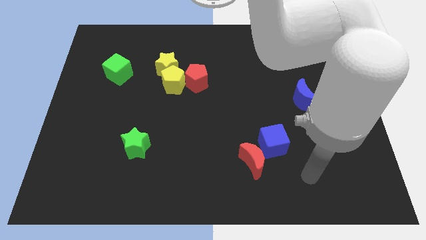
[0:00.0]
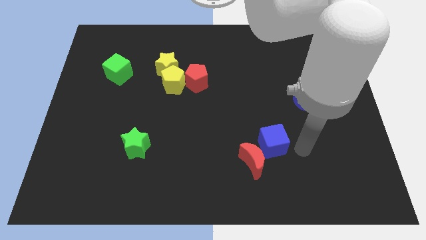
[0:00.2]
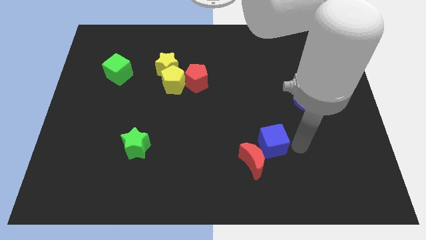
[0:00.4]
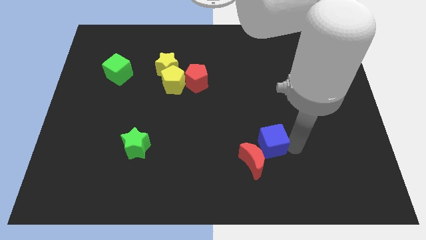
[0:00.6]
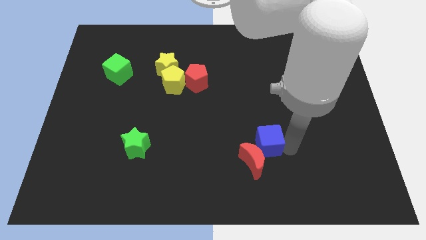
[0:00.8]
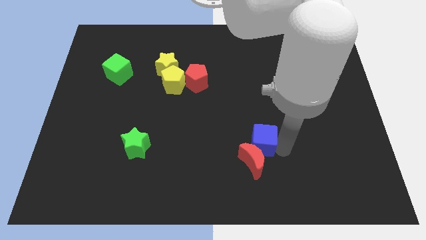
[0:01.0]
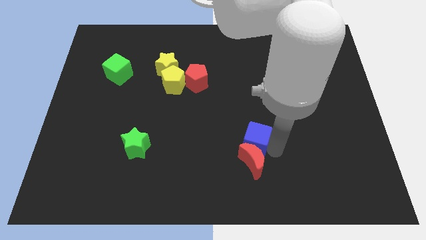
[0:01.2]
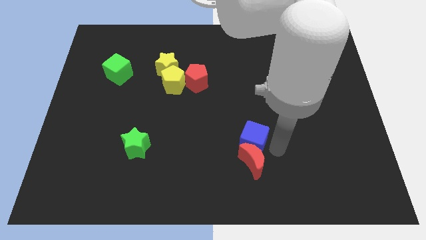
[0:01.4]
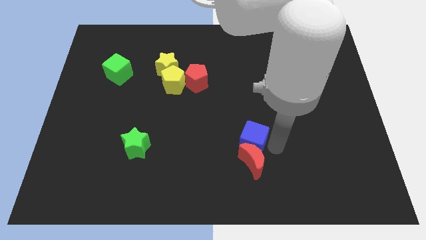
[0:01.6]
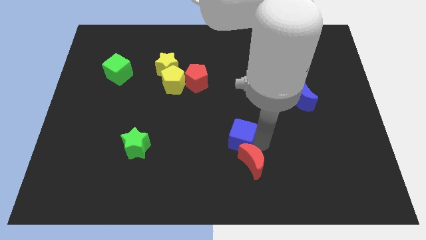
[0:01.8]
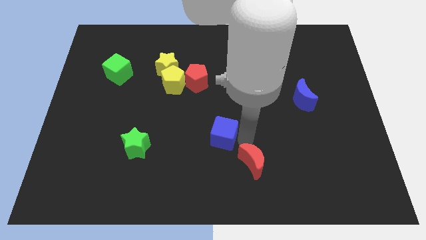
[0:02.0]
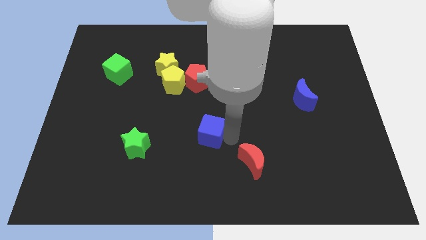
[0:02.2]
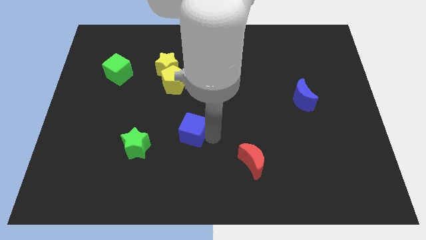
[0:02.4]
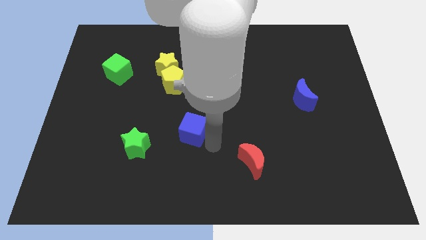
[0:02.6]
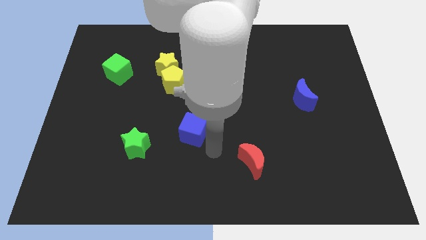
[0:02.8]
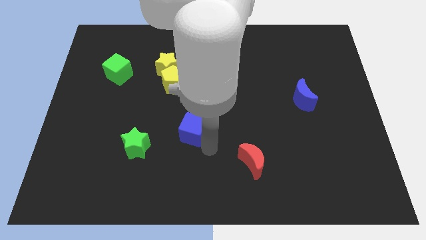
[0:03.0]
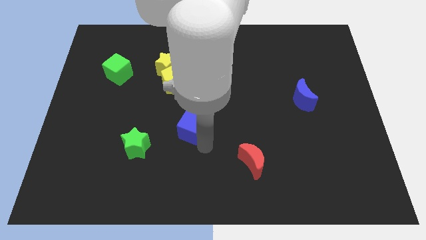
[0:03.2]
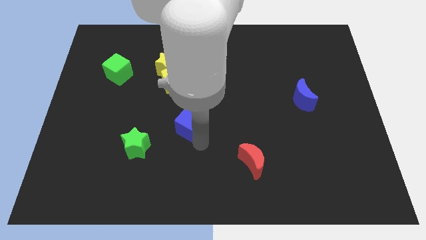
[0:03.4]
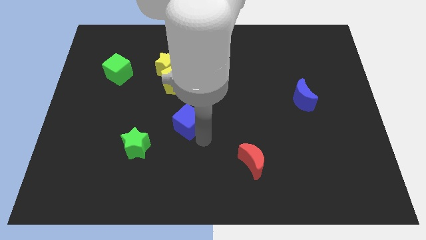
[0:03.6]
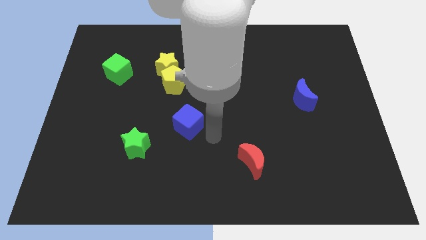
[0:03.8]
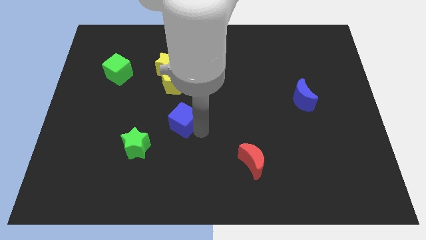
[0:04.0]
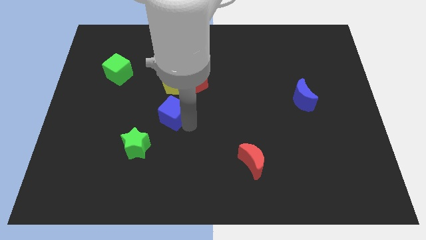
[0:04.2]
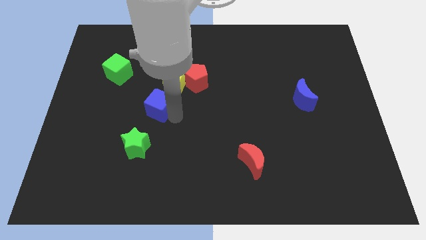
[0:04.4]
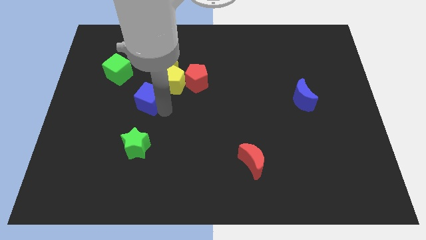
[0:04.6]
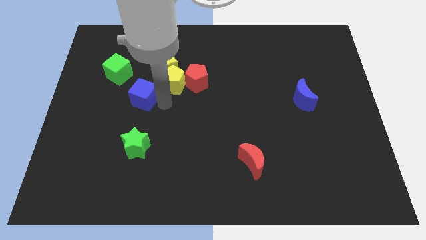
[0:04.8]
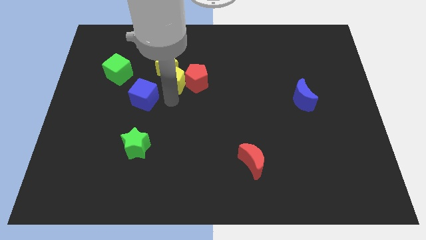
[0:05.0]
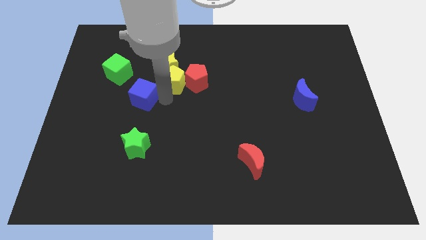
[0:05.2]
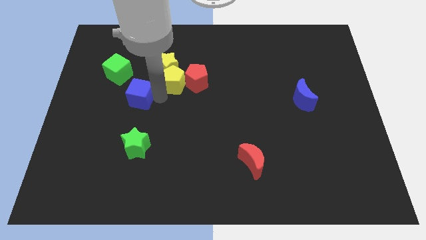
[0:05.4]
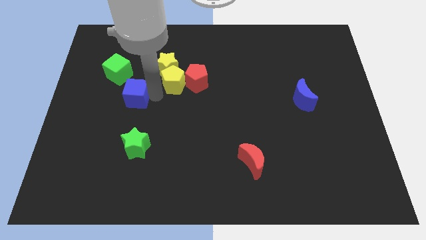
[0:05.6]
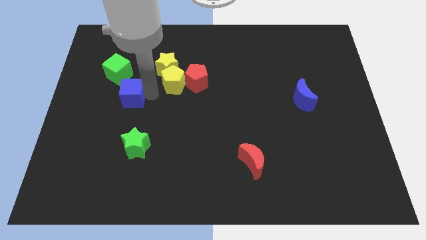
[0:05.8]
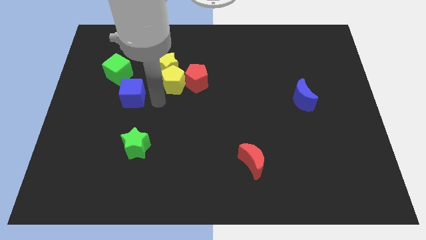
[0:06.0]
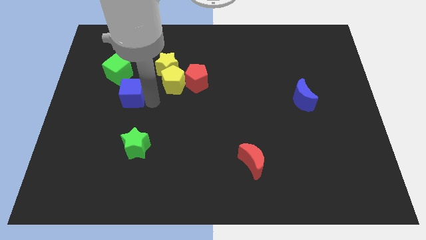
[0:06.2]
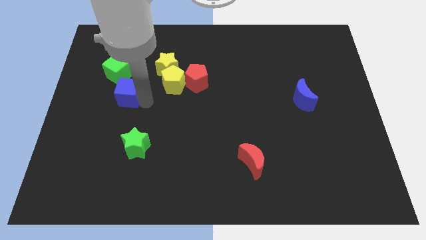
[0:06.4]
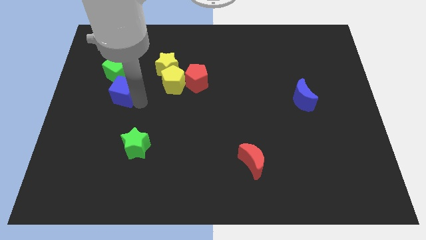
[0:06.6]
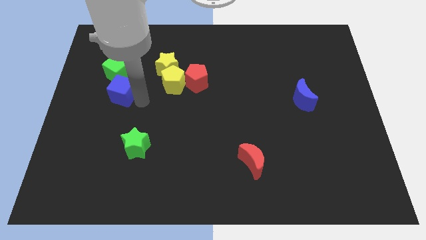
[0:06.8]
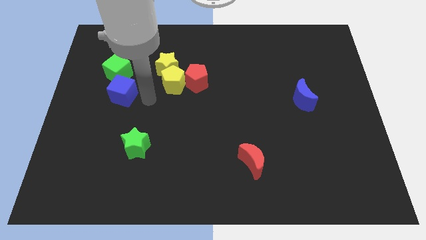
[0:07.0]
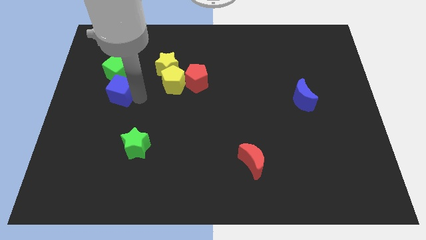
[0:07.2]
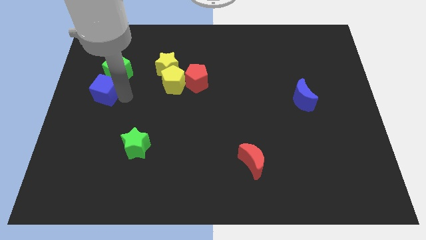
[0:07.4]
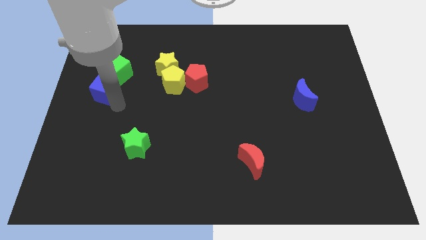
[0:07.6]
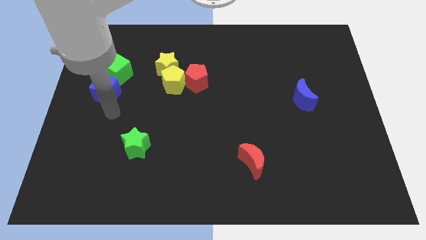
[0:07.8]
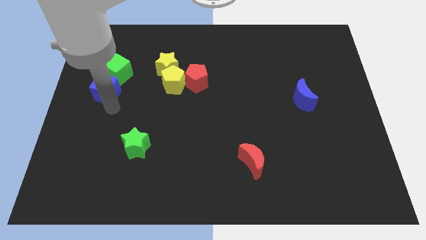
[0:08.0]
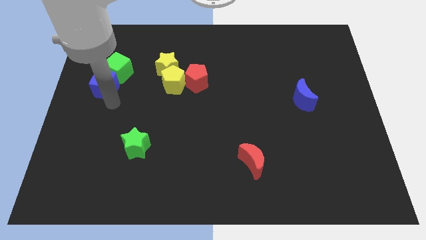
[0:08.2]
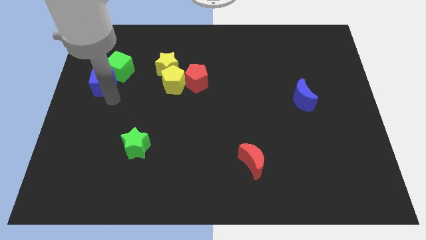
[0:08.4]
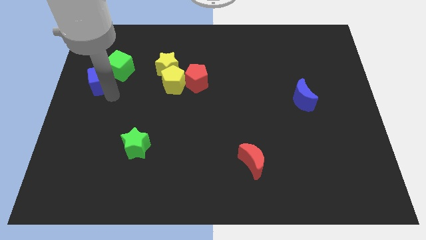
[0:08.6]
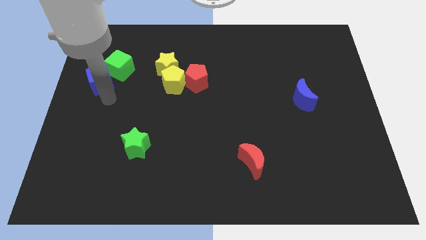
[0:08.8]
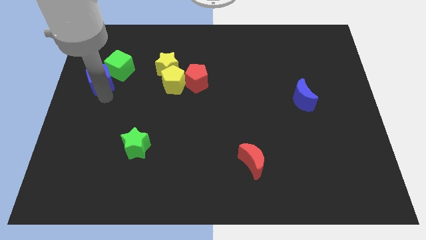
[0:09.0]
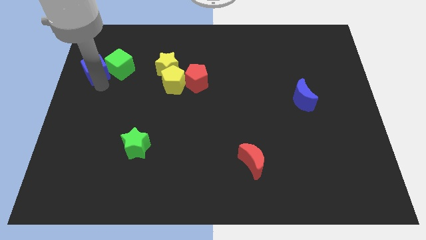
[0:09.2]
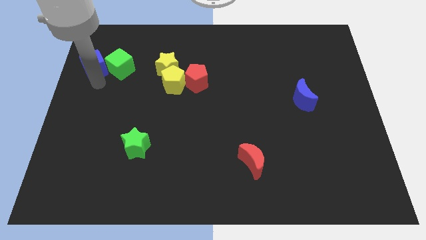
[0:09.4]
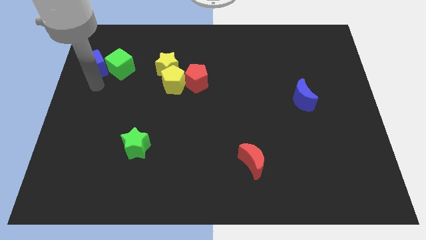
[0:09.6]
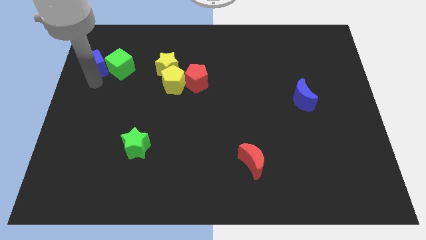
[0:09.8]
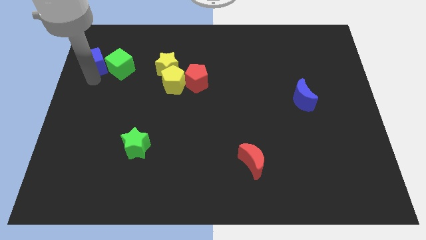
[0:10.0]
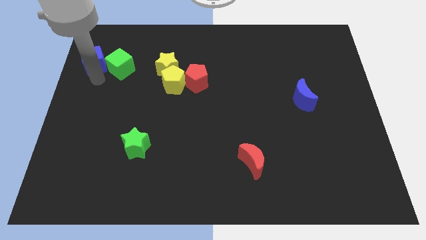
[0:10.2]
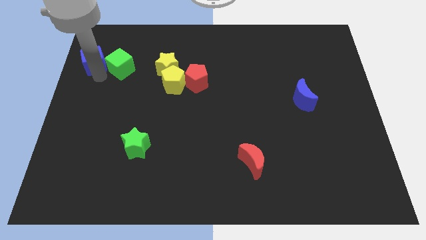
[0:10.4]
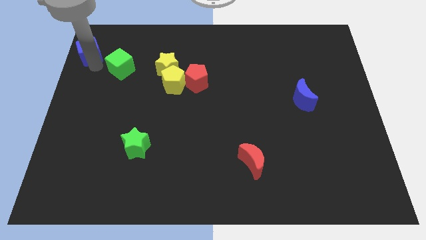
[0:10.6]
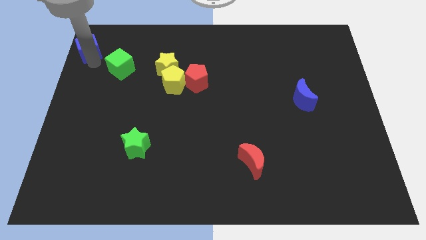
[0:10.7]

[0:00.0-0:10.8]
put the blue cube to the top left corner

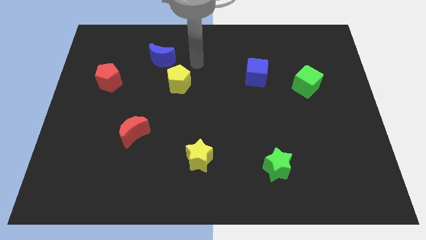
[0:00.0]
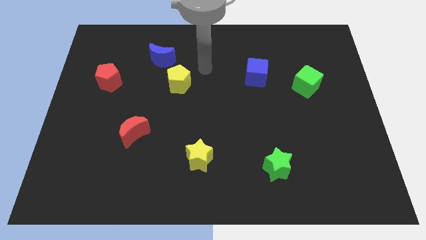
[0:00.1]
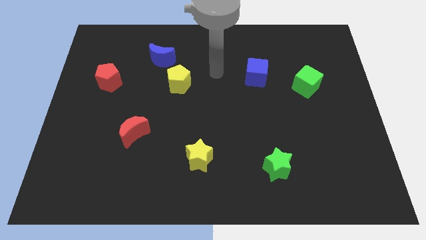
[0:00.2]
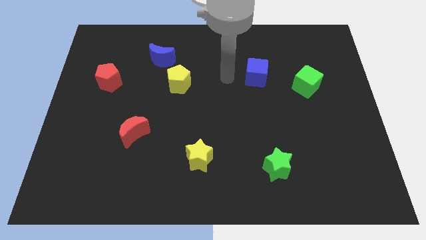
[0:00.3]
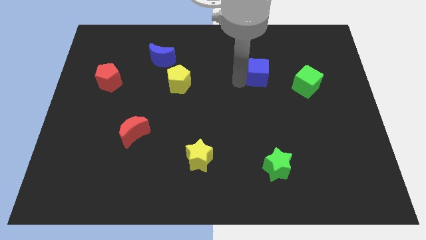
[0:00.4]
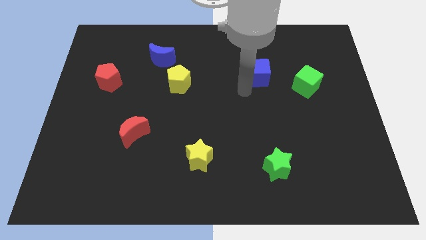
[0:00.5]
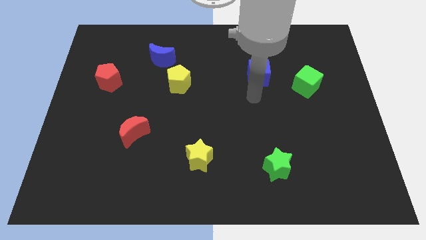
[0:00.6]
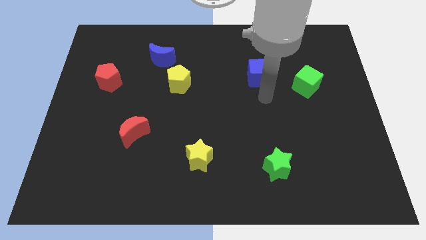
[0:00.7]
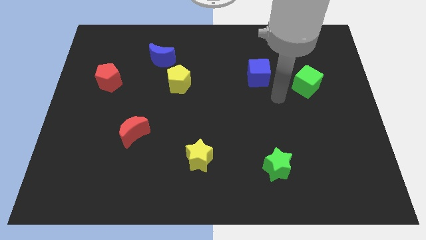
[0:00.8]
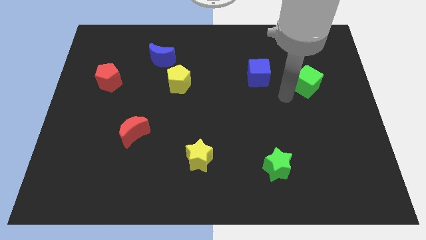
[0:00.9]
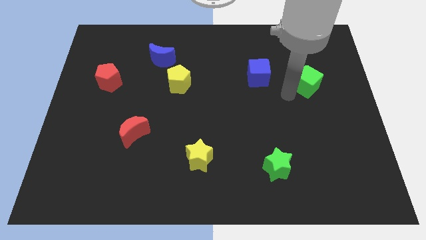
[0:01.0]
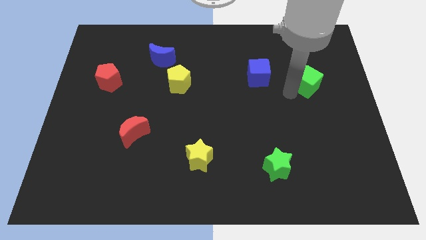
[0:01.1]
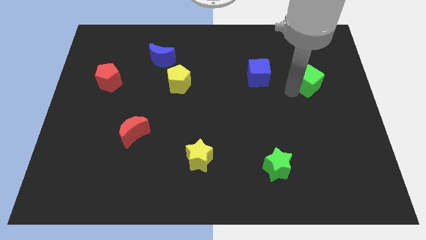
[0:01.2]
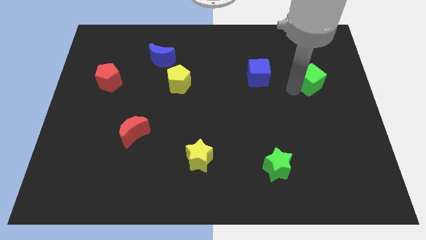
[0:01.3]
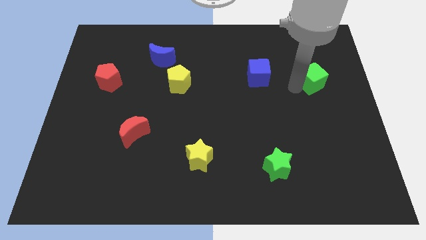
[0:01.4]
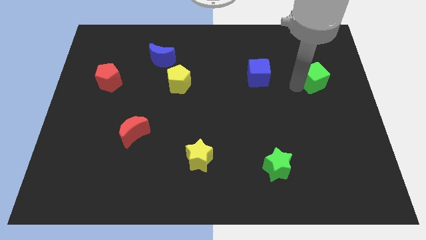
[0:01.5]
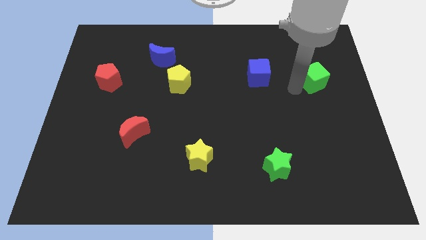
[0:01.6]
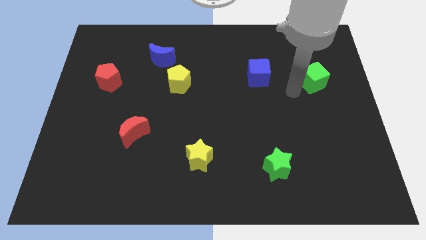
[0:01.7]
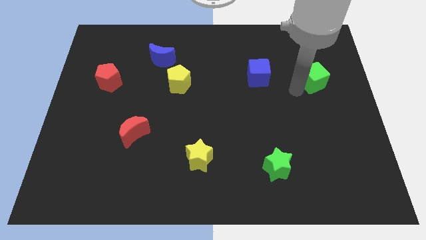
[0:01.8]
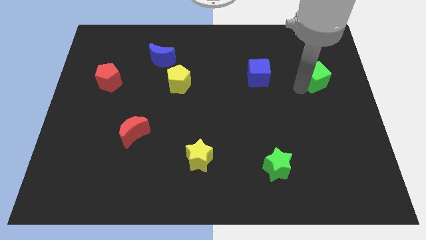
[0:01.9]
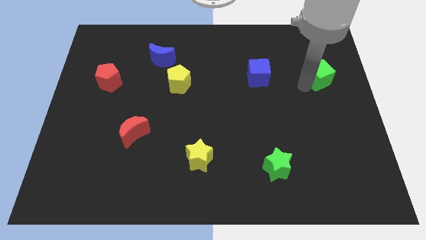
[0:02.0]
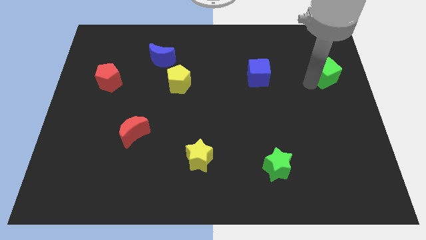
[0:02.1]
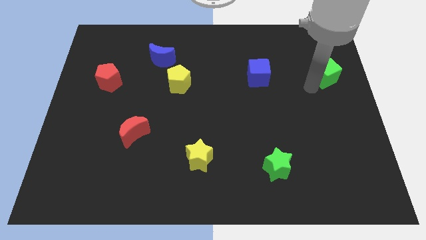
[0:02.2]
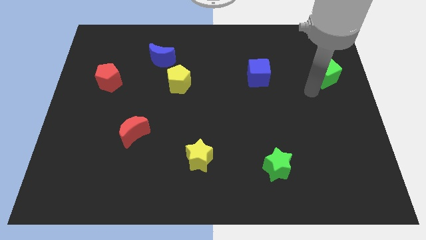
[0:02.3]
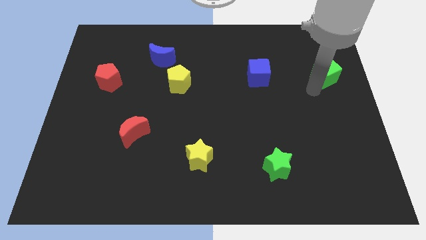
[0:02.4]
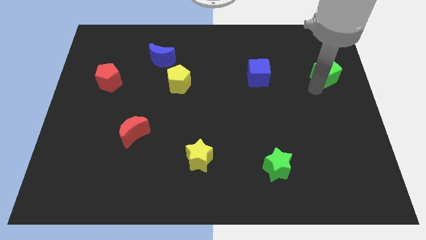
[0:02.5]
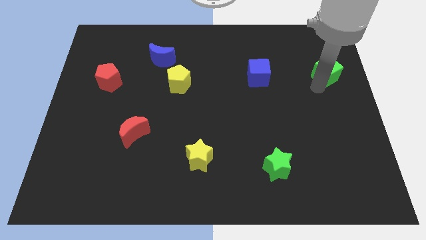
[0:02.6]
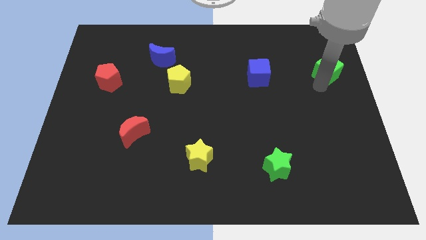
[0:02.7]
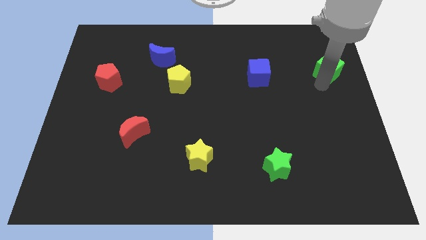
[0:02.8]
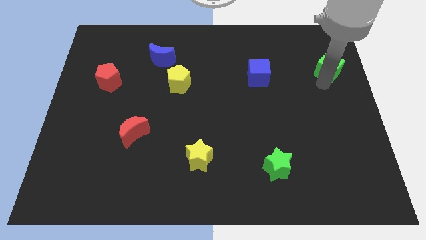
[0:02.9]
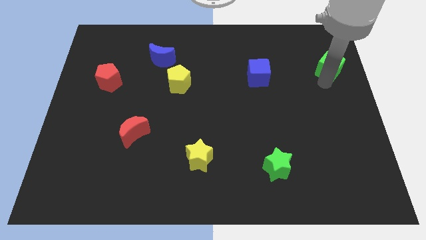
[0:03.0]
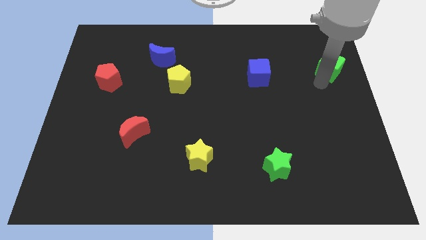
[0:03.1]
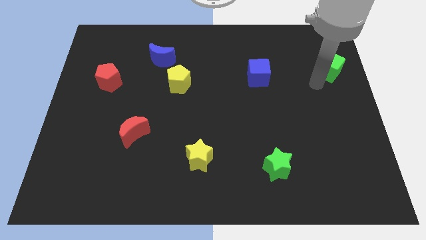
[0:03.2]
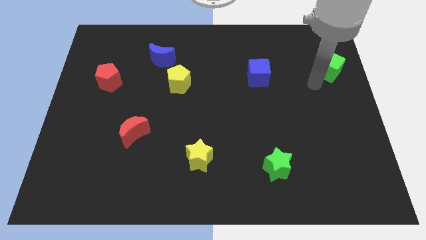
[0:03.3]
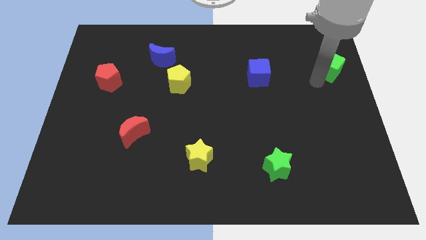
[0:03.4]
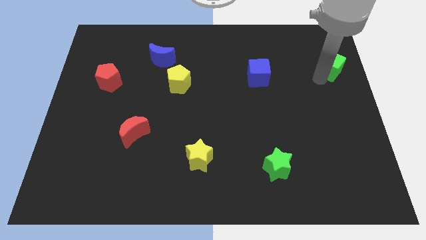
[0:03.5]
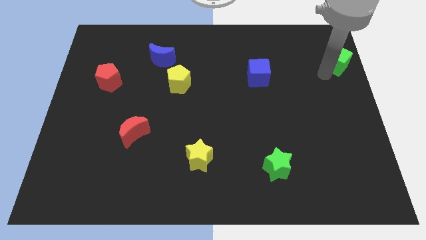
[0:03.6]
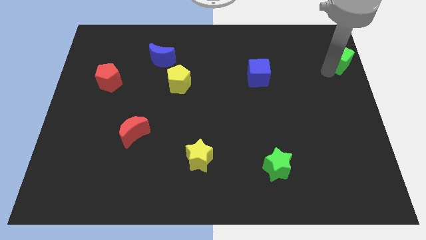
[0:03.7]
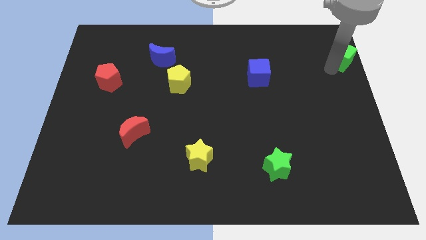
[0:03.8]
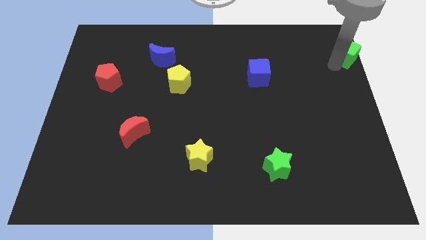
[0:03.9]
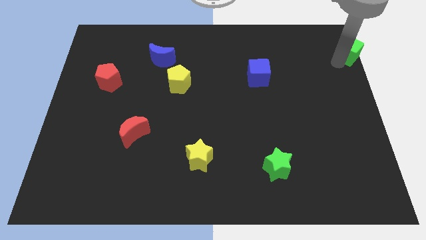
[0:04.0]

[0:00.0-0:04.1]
slide the green cube to the top right corner
